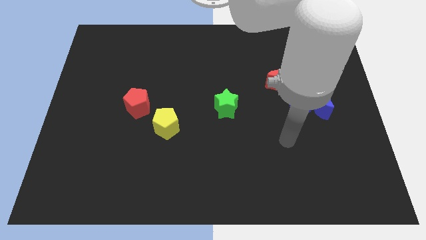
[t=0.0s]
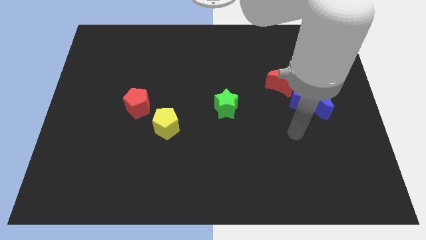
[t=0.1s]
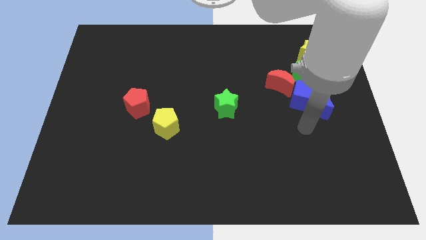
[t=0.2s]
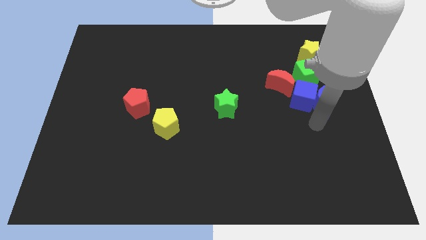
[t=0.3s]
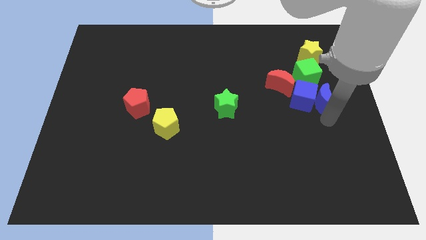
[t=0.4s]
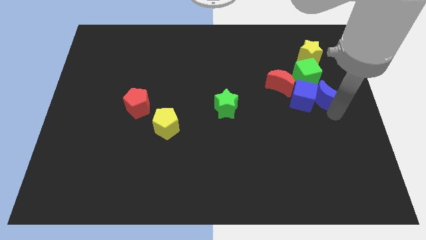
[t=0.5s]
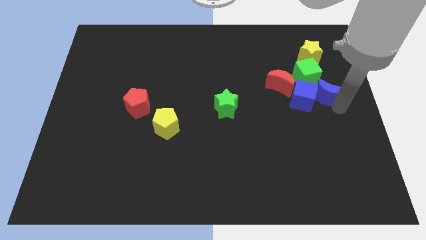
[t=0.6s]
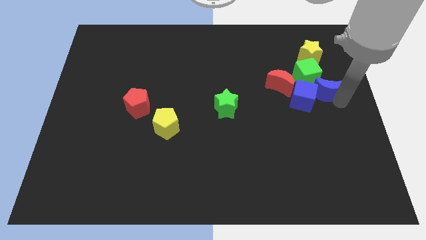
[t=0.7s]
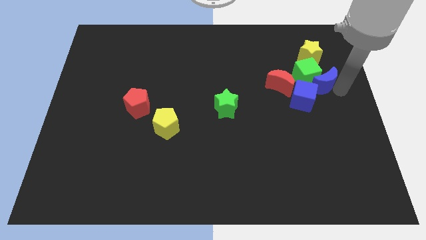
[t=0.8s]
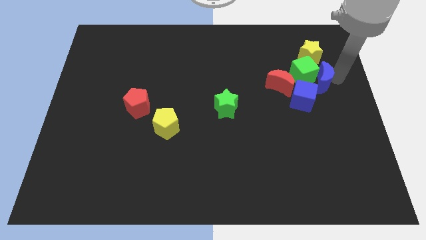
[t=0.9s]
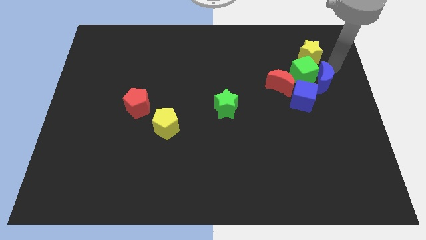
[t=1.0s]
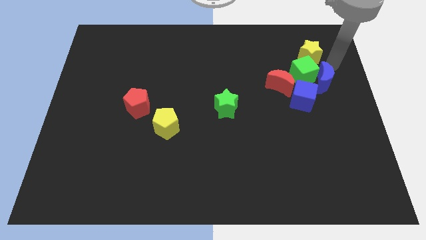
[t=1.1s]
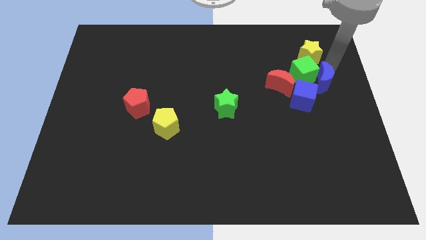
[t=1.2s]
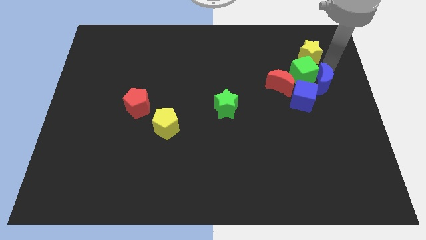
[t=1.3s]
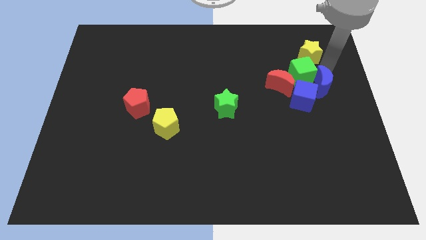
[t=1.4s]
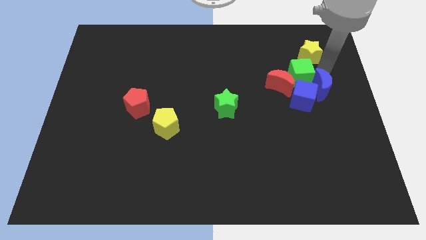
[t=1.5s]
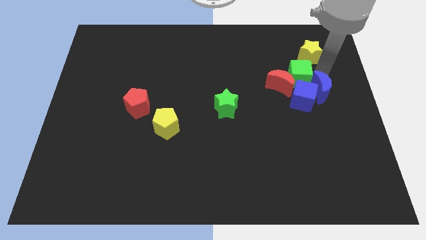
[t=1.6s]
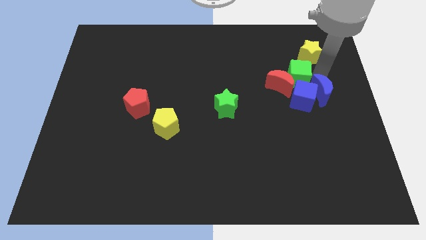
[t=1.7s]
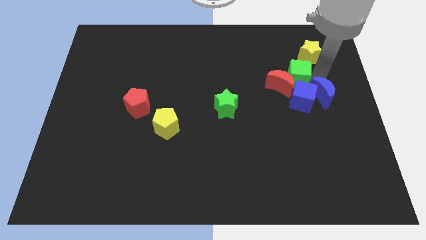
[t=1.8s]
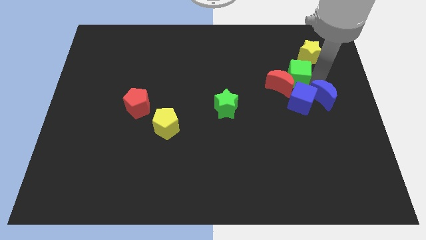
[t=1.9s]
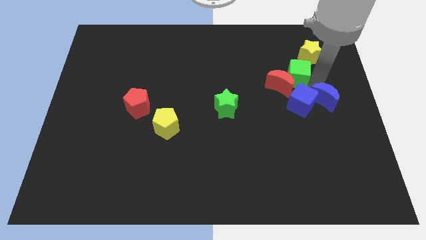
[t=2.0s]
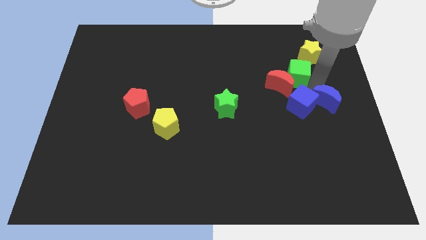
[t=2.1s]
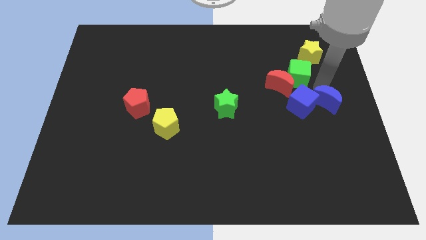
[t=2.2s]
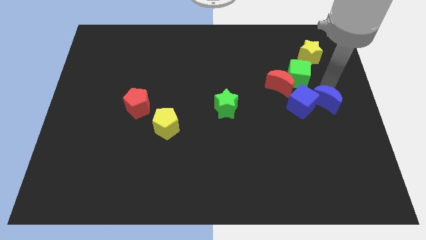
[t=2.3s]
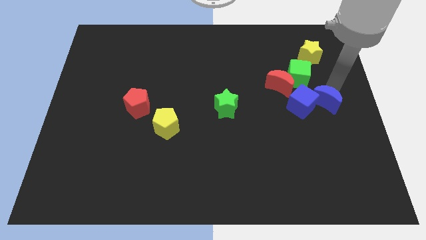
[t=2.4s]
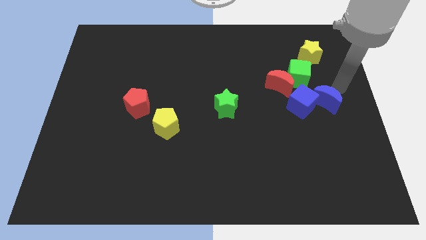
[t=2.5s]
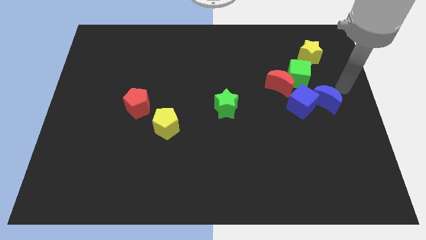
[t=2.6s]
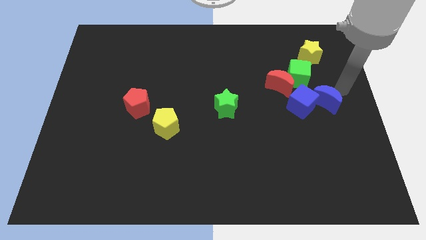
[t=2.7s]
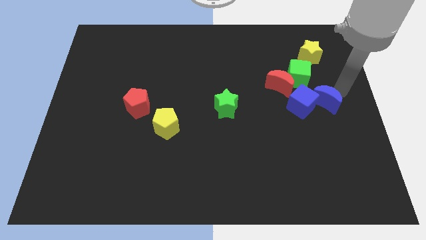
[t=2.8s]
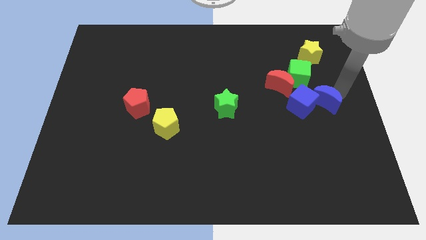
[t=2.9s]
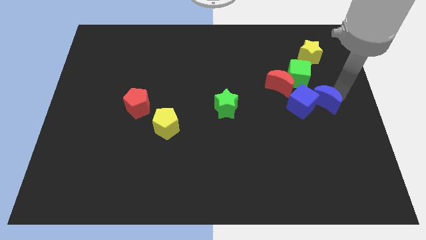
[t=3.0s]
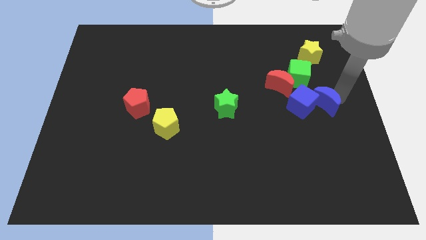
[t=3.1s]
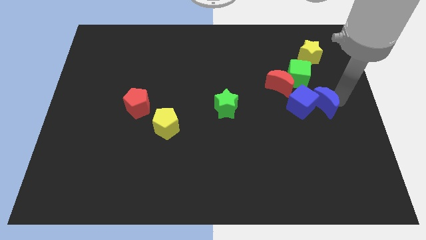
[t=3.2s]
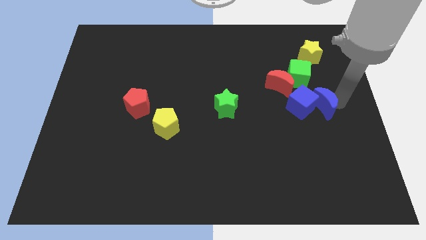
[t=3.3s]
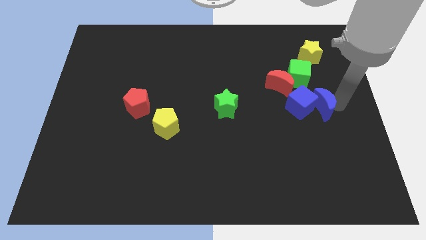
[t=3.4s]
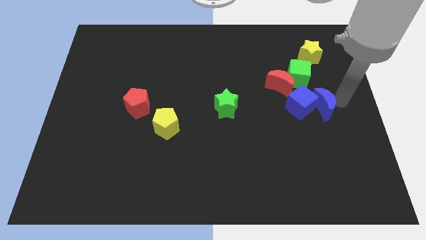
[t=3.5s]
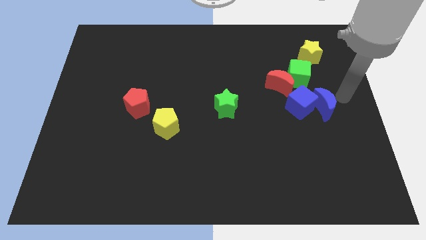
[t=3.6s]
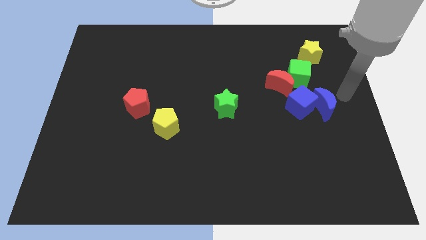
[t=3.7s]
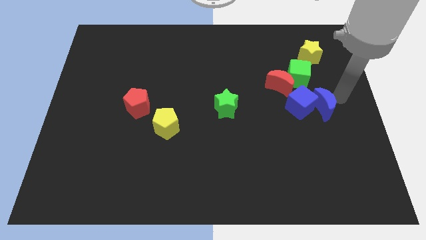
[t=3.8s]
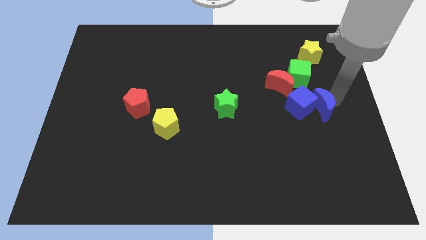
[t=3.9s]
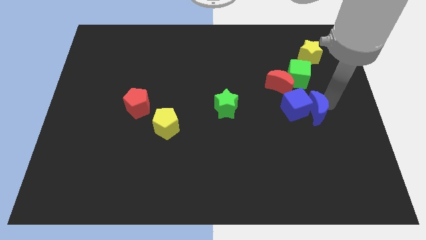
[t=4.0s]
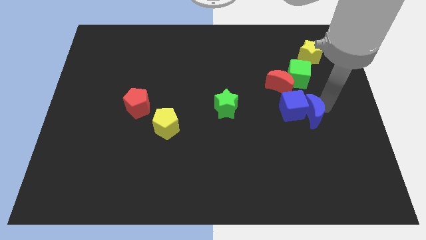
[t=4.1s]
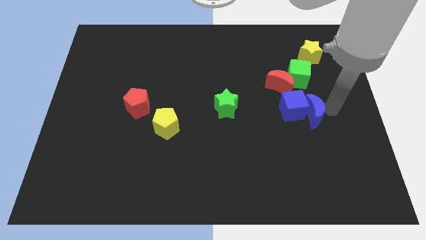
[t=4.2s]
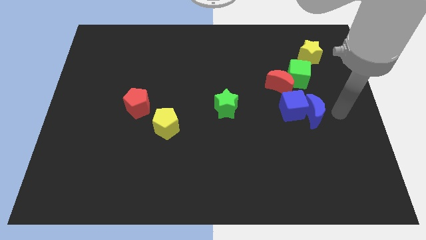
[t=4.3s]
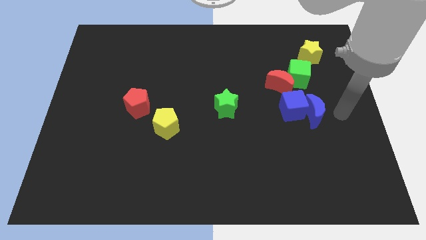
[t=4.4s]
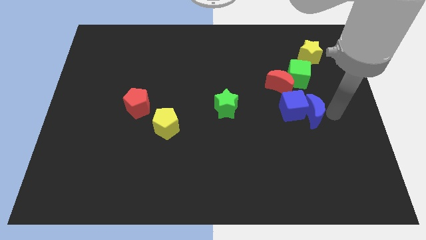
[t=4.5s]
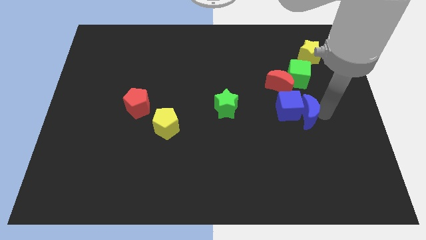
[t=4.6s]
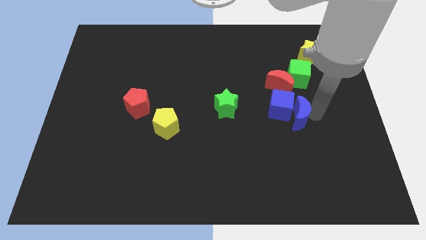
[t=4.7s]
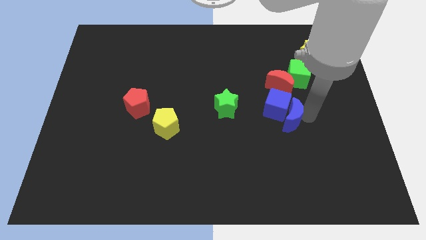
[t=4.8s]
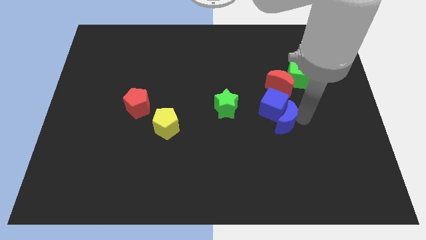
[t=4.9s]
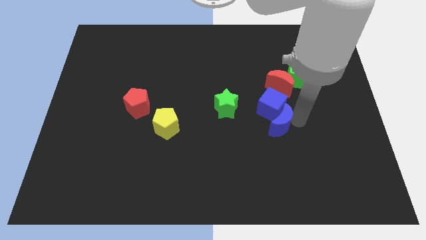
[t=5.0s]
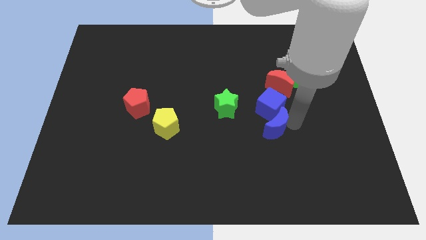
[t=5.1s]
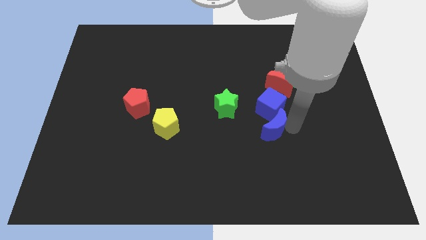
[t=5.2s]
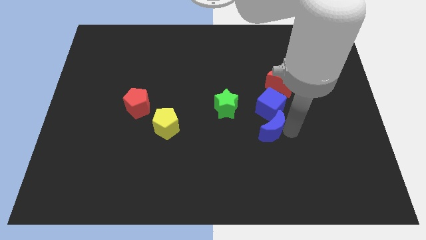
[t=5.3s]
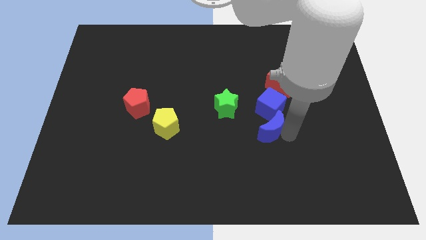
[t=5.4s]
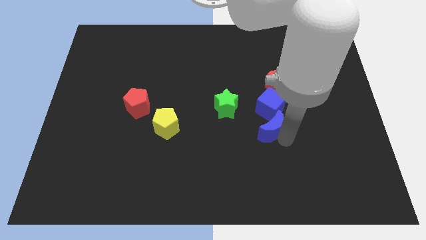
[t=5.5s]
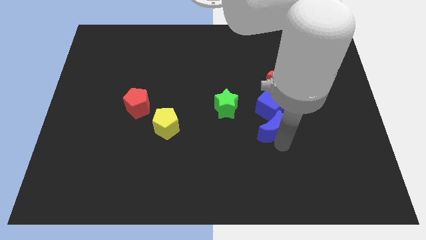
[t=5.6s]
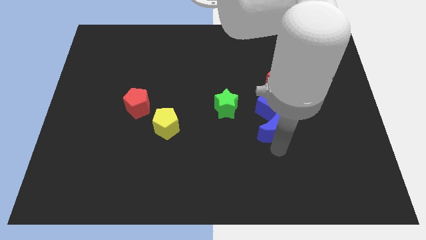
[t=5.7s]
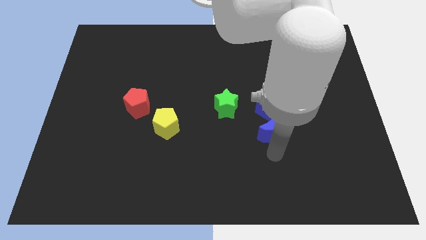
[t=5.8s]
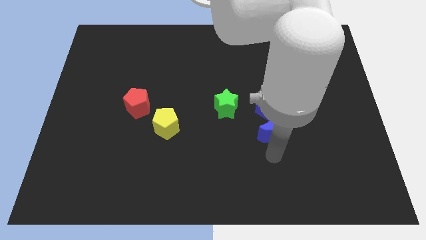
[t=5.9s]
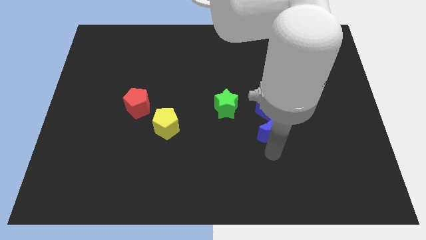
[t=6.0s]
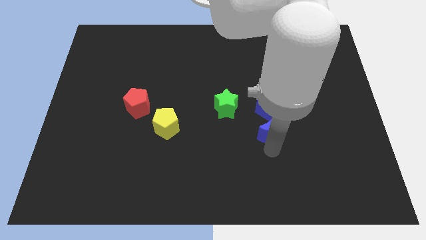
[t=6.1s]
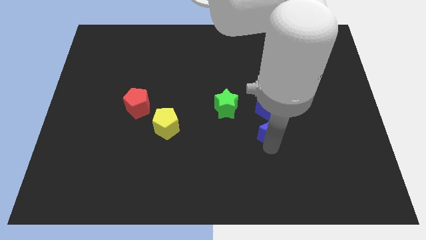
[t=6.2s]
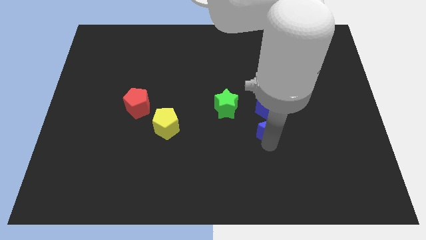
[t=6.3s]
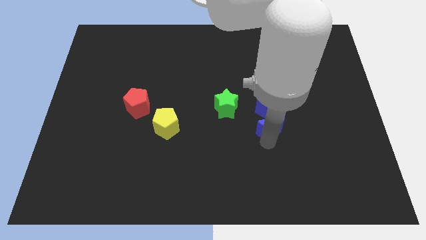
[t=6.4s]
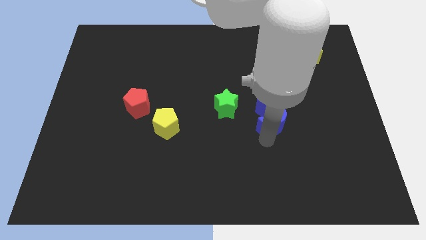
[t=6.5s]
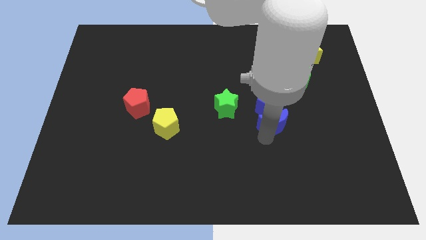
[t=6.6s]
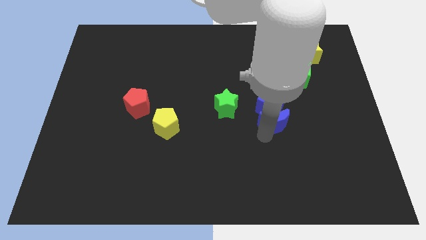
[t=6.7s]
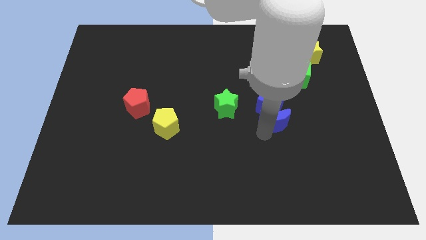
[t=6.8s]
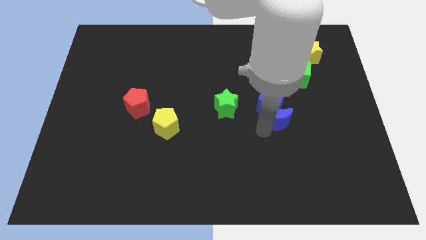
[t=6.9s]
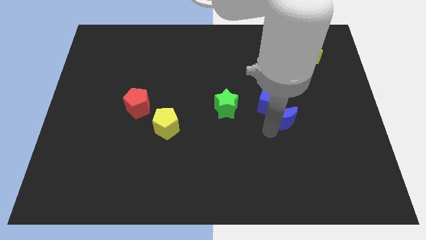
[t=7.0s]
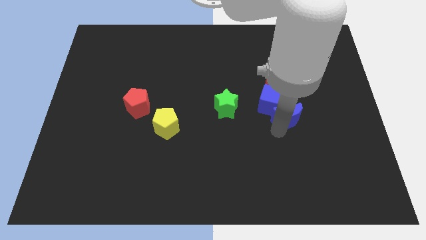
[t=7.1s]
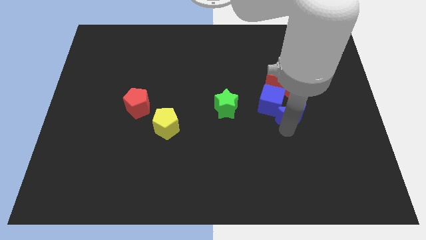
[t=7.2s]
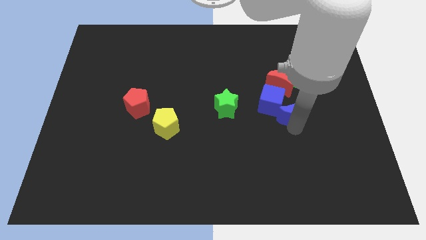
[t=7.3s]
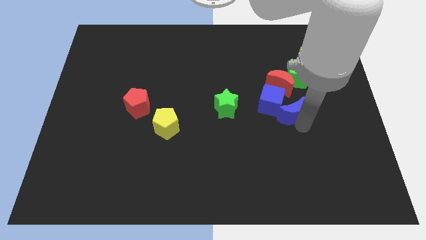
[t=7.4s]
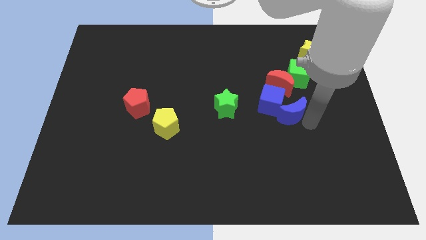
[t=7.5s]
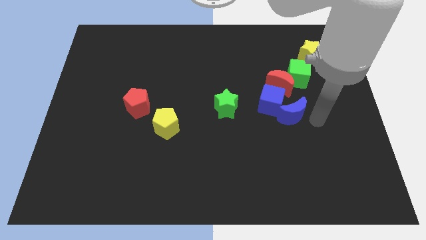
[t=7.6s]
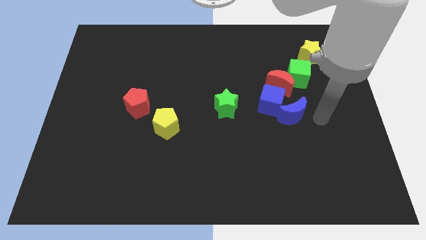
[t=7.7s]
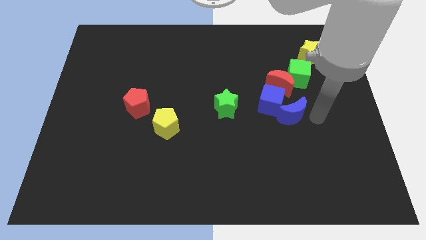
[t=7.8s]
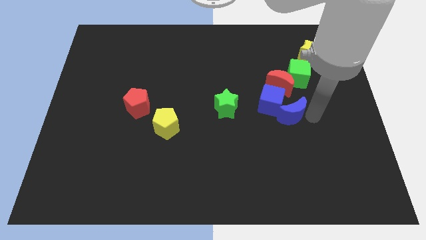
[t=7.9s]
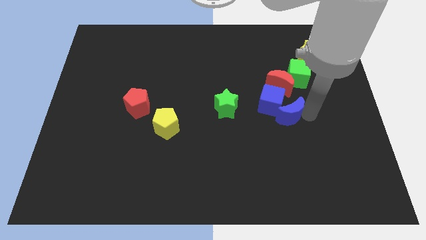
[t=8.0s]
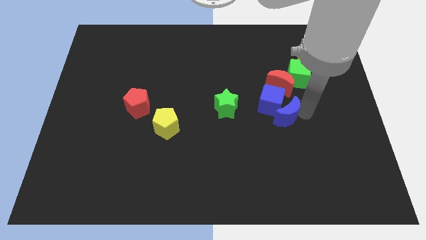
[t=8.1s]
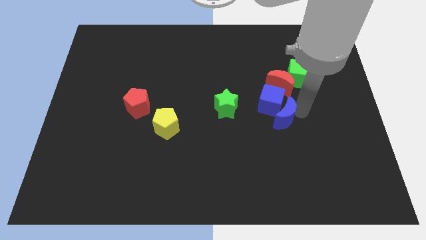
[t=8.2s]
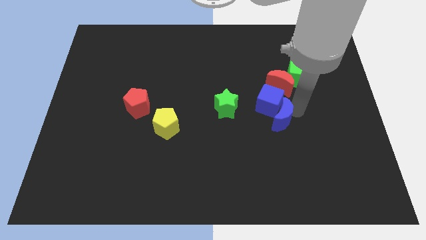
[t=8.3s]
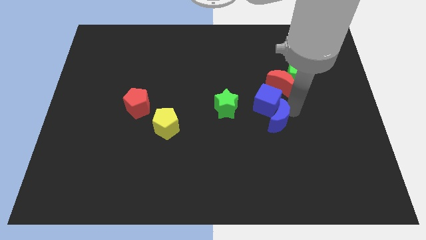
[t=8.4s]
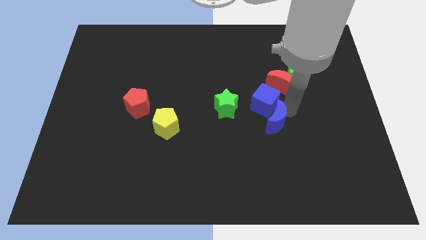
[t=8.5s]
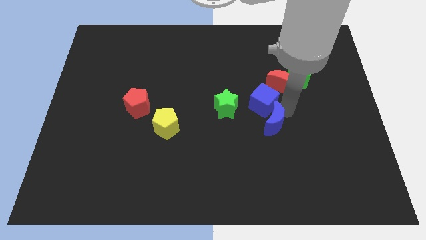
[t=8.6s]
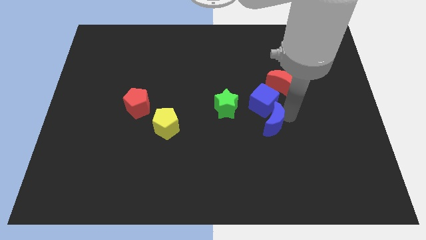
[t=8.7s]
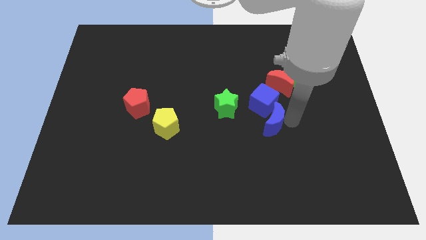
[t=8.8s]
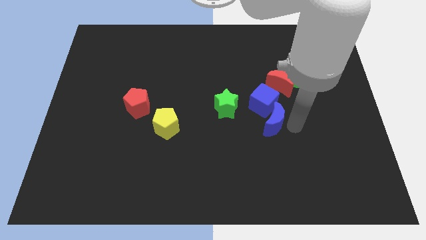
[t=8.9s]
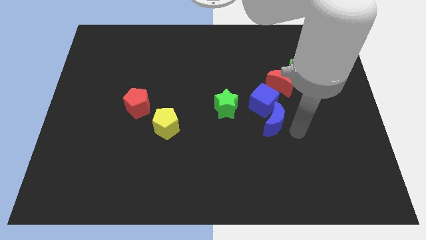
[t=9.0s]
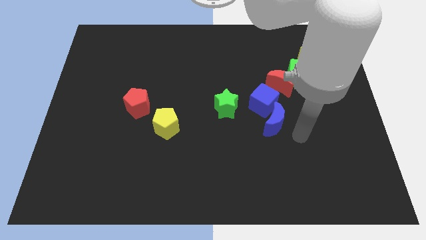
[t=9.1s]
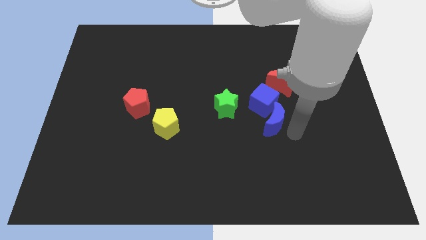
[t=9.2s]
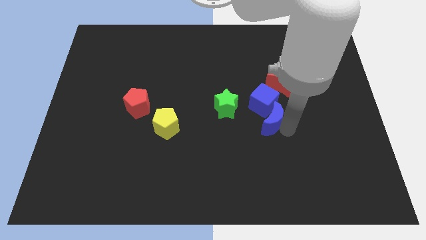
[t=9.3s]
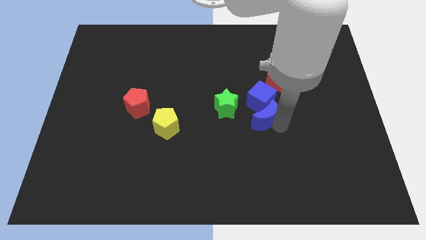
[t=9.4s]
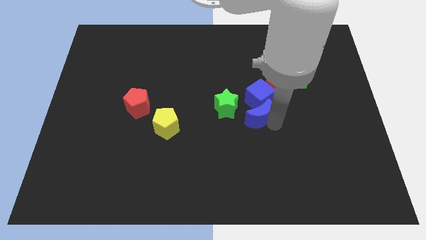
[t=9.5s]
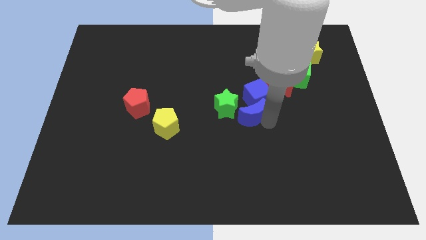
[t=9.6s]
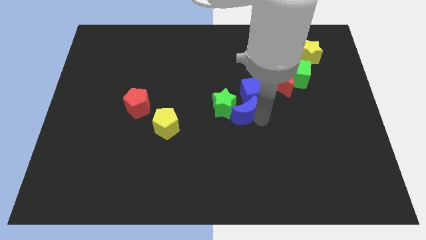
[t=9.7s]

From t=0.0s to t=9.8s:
move the blue moon next to the green star
